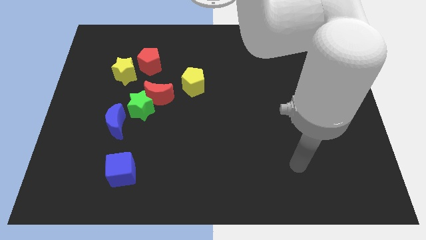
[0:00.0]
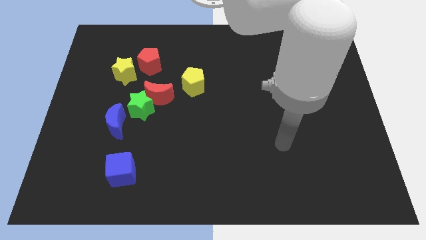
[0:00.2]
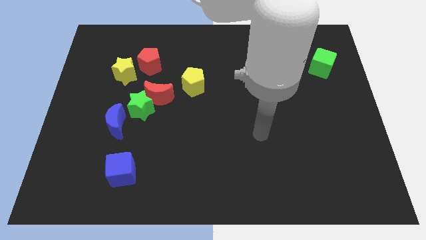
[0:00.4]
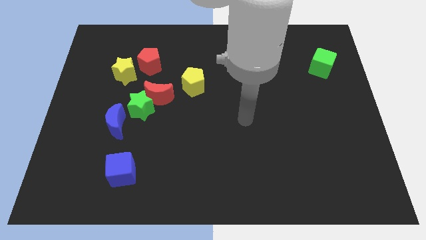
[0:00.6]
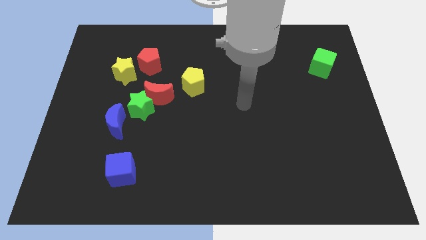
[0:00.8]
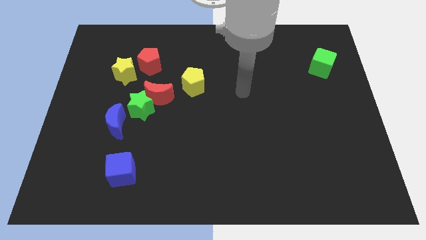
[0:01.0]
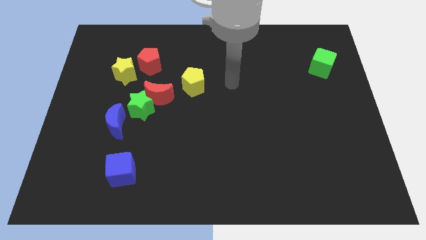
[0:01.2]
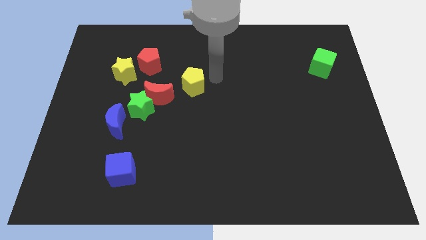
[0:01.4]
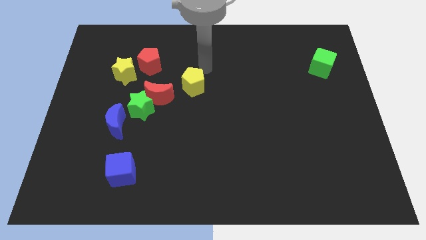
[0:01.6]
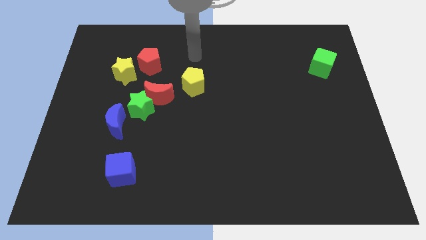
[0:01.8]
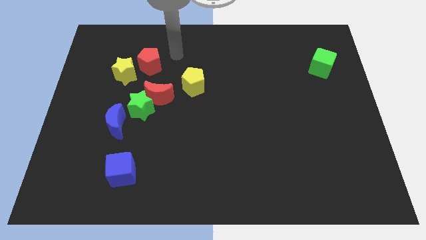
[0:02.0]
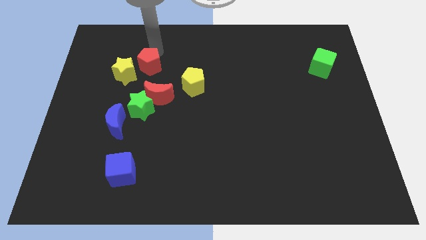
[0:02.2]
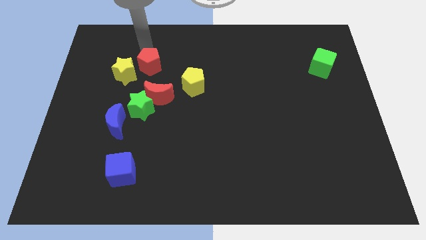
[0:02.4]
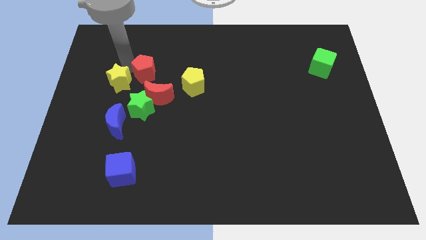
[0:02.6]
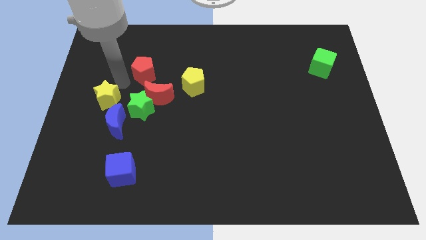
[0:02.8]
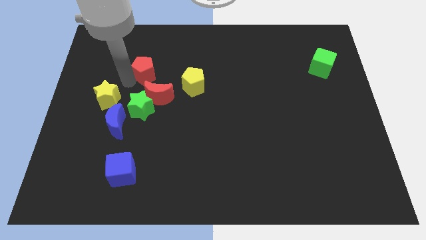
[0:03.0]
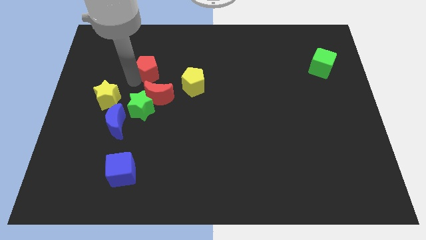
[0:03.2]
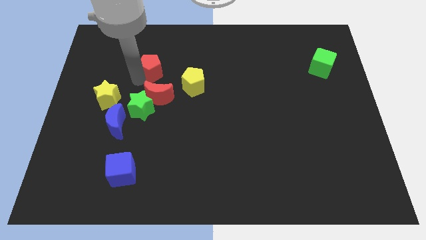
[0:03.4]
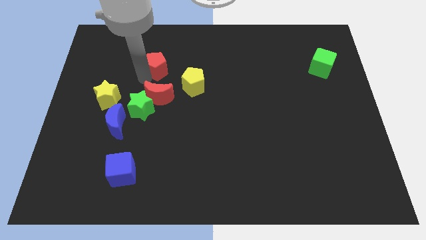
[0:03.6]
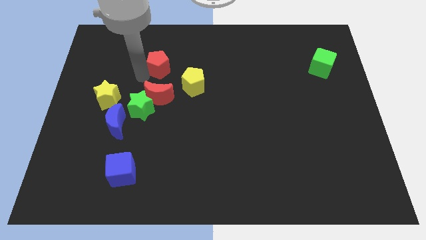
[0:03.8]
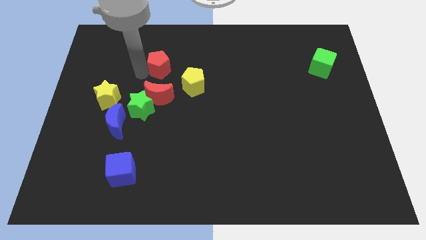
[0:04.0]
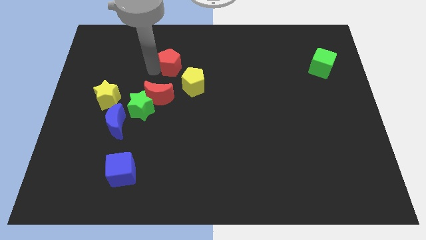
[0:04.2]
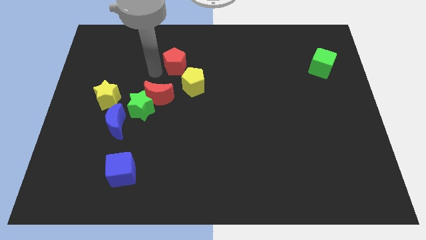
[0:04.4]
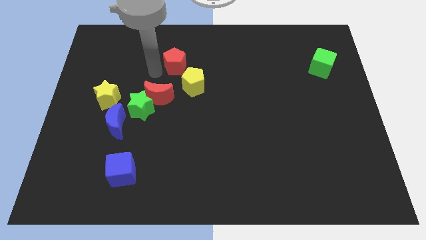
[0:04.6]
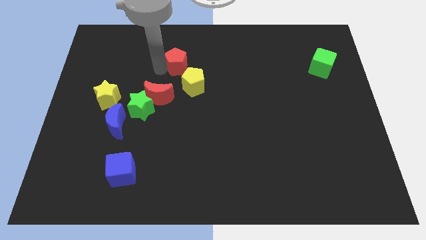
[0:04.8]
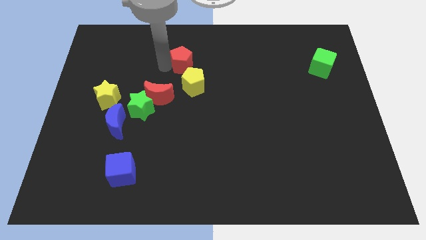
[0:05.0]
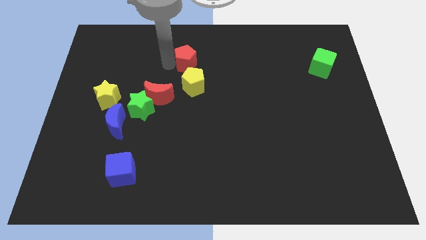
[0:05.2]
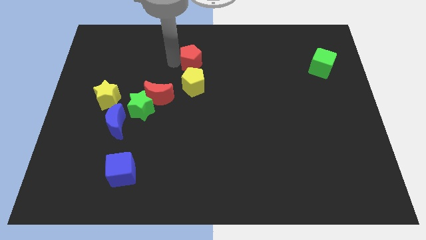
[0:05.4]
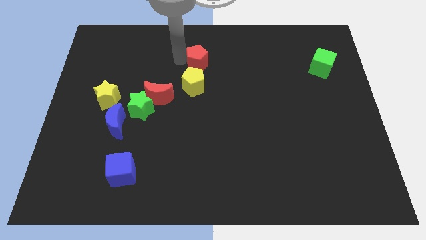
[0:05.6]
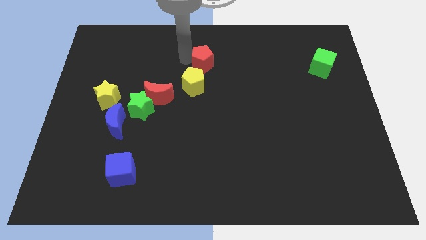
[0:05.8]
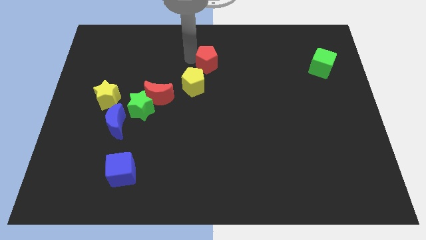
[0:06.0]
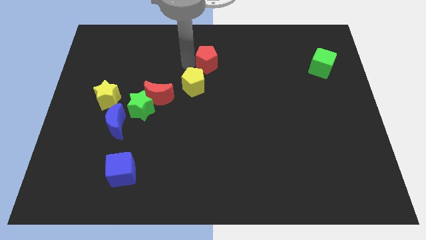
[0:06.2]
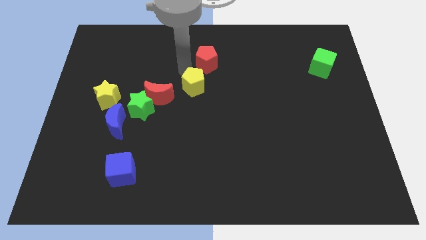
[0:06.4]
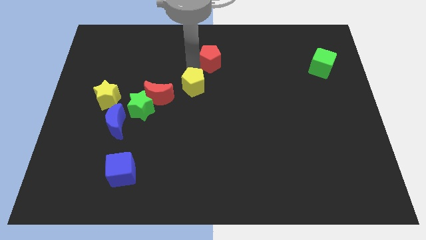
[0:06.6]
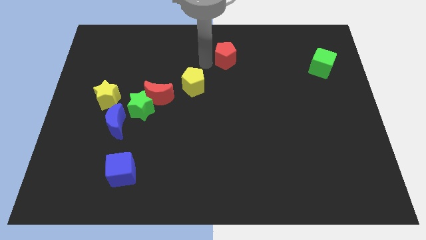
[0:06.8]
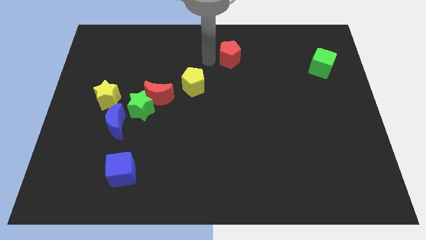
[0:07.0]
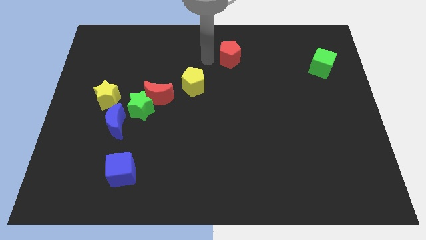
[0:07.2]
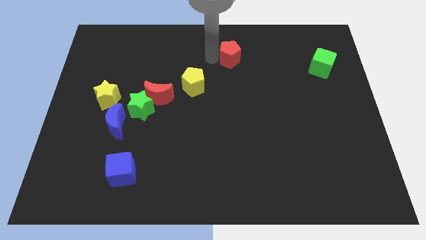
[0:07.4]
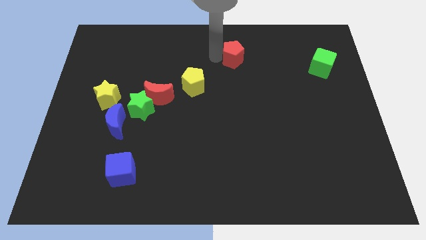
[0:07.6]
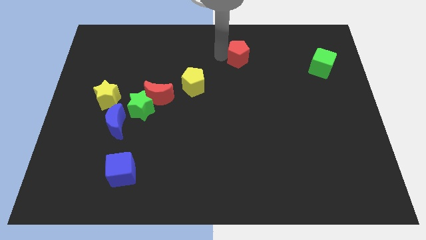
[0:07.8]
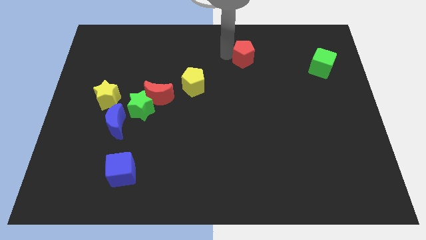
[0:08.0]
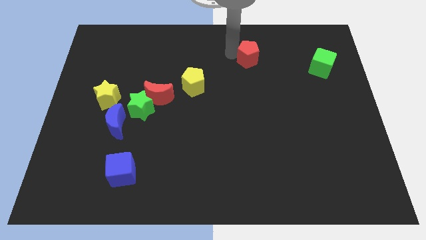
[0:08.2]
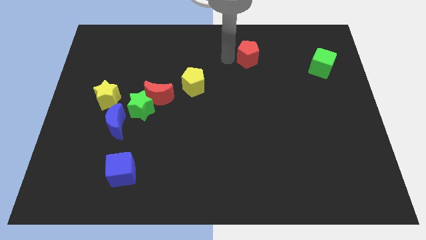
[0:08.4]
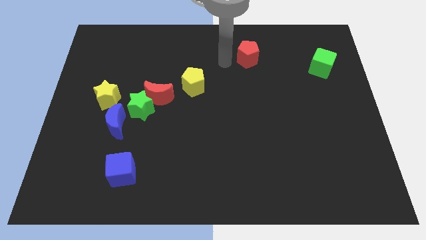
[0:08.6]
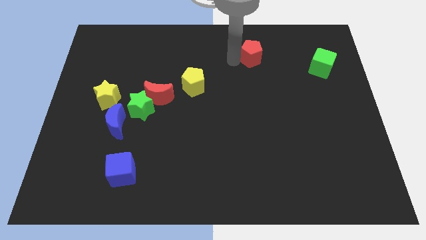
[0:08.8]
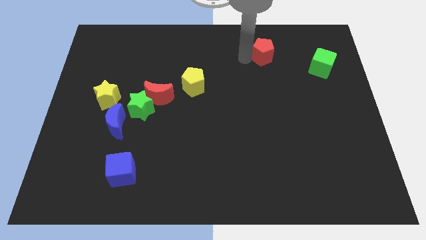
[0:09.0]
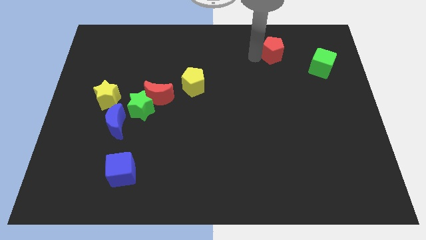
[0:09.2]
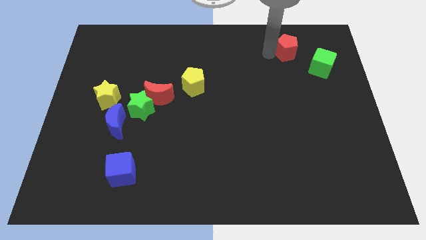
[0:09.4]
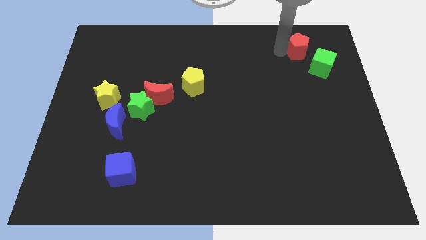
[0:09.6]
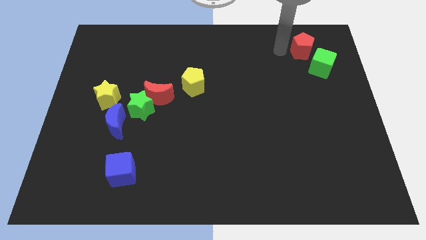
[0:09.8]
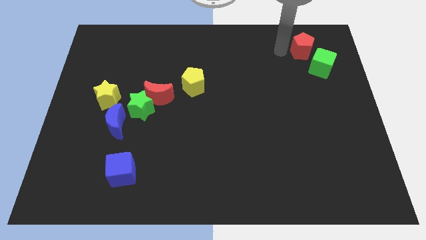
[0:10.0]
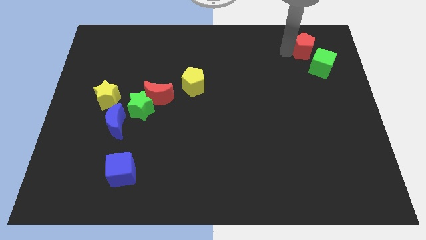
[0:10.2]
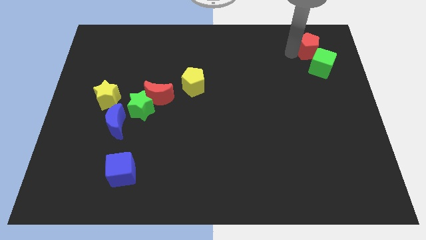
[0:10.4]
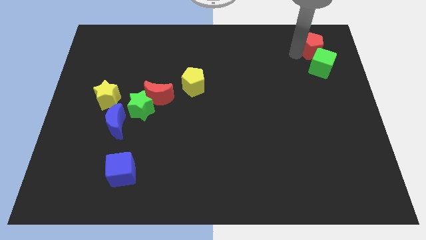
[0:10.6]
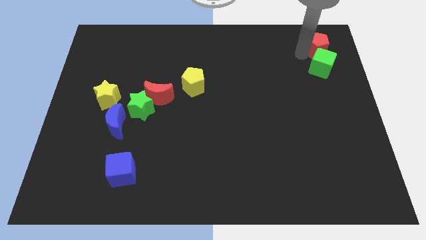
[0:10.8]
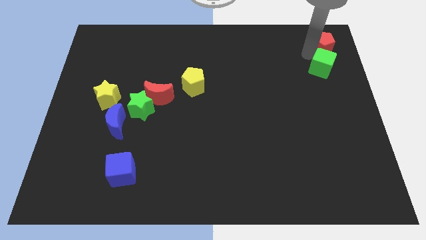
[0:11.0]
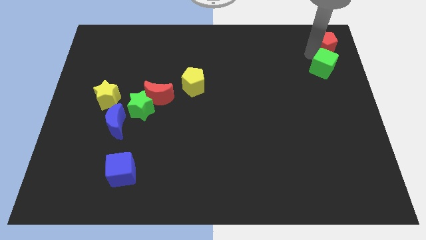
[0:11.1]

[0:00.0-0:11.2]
put the red pentagon to the top right of the board

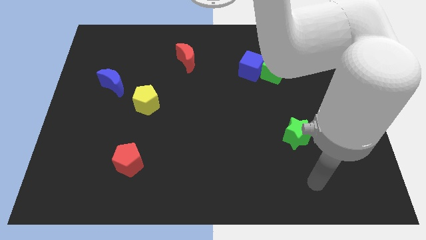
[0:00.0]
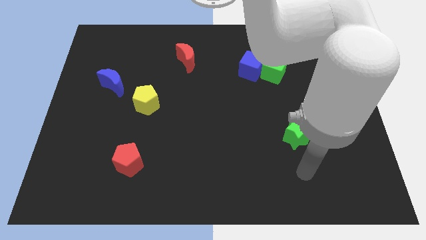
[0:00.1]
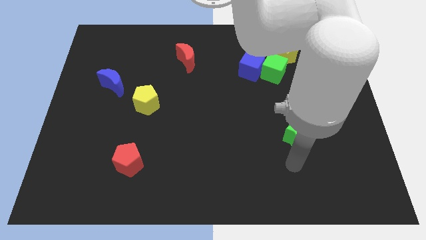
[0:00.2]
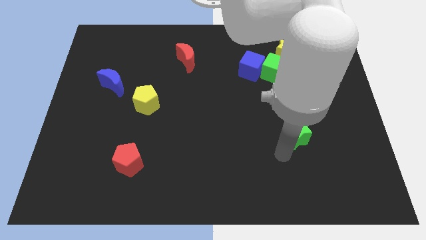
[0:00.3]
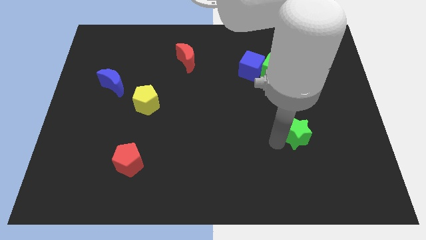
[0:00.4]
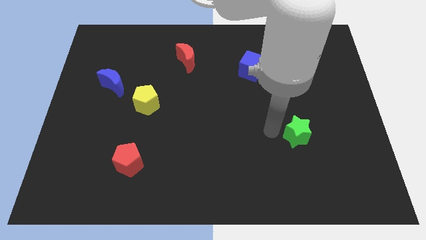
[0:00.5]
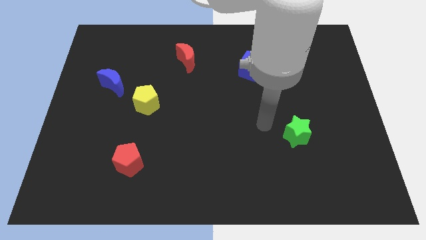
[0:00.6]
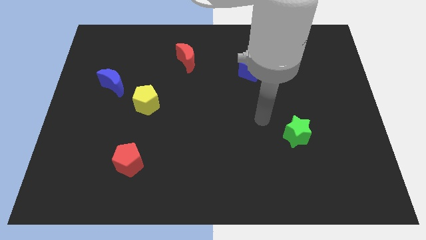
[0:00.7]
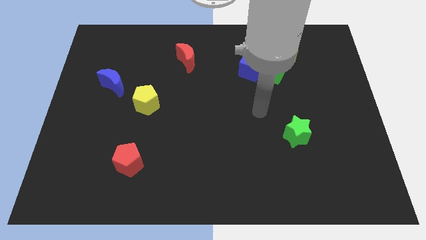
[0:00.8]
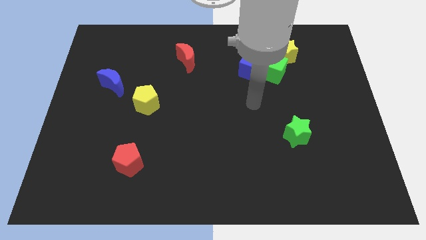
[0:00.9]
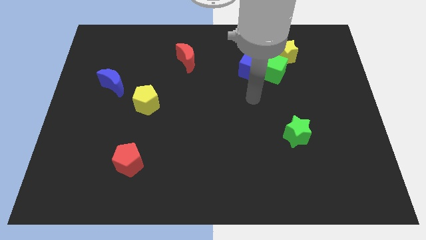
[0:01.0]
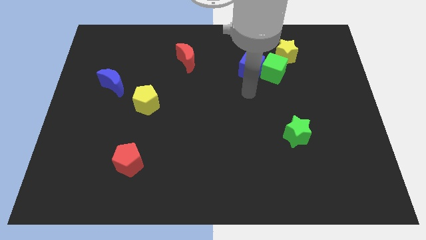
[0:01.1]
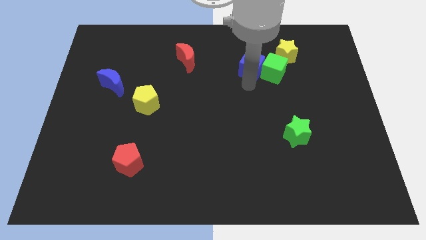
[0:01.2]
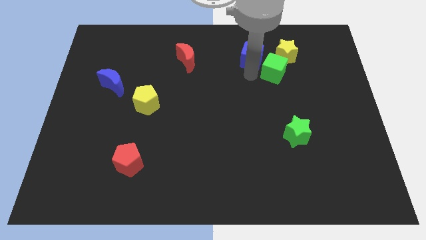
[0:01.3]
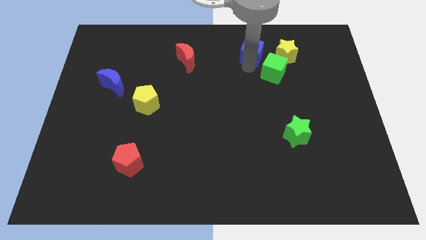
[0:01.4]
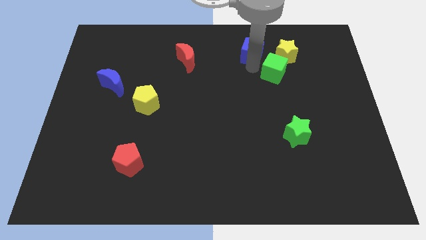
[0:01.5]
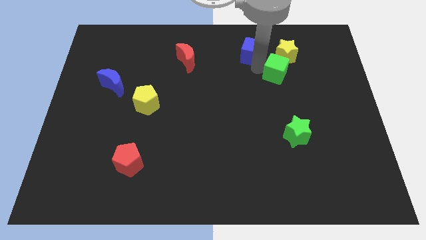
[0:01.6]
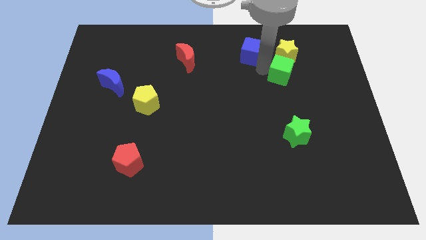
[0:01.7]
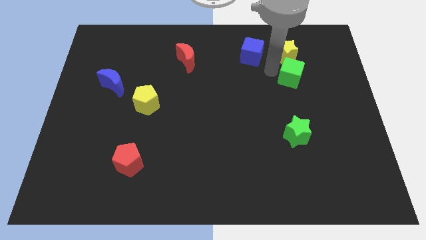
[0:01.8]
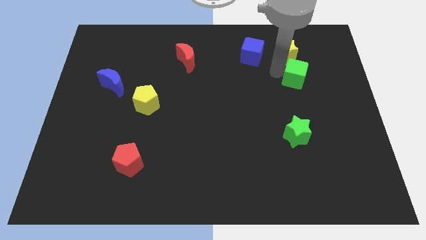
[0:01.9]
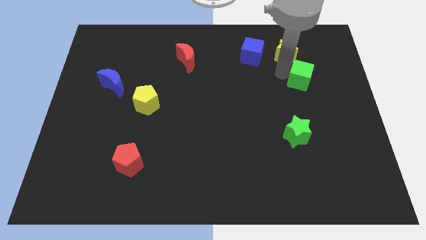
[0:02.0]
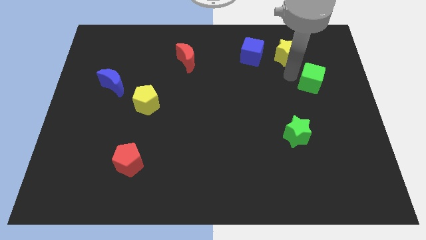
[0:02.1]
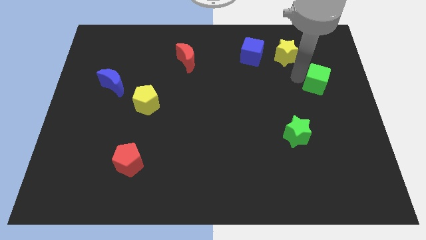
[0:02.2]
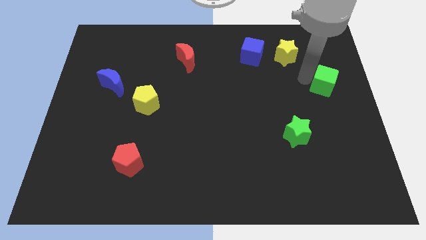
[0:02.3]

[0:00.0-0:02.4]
push the green cube to the right side of the board
